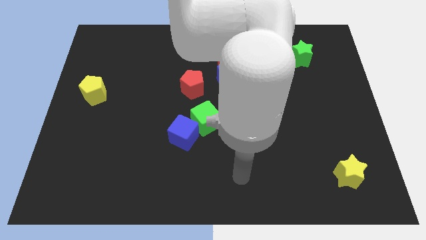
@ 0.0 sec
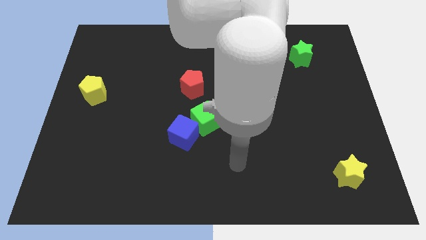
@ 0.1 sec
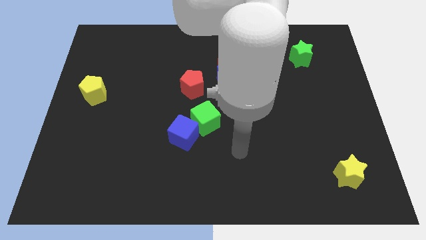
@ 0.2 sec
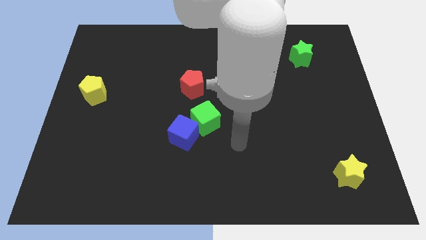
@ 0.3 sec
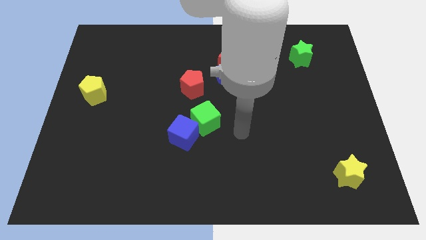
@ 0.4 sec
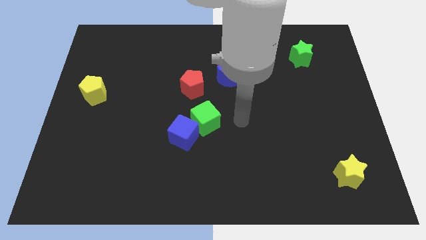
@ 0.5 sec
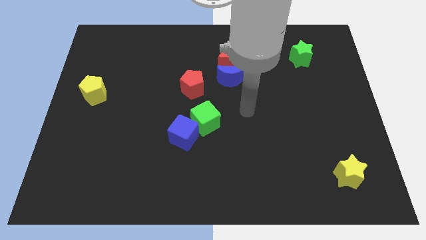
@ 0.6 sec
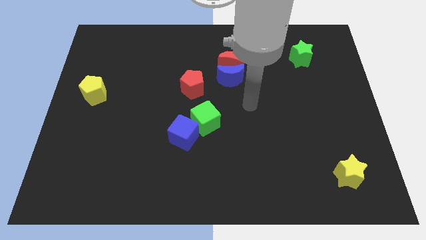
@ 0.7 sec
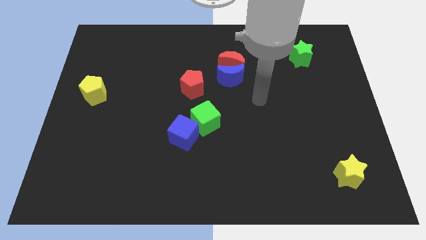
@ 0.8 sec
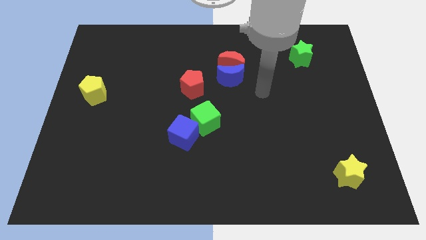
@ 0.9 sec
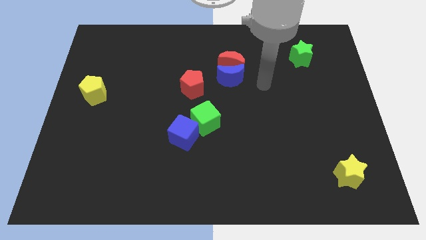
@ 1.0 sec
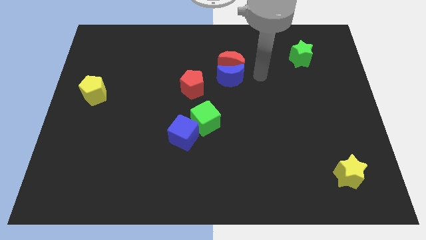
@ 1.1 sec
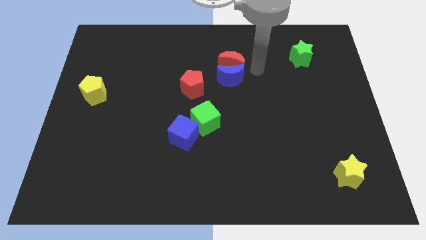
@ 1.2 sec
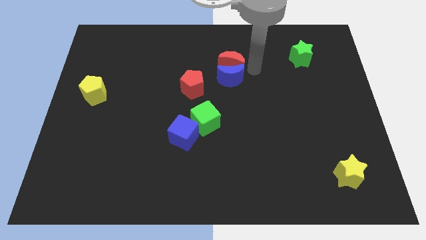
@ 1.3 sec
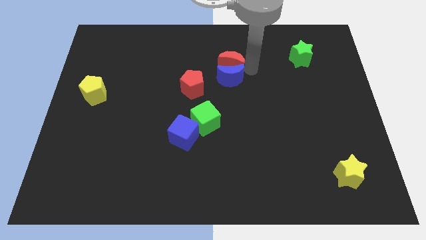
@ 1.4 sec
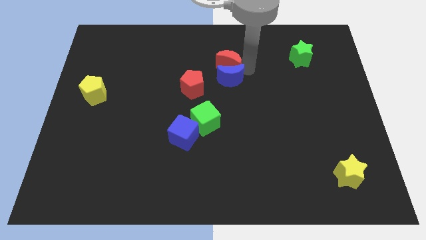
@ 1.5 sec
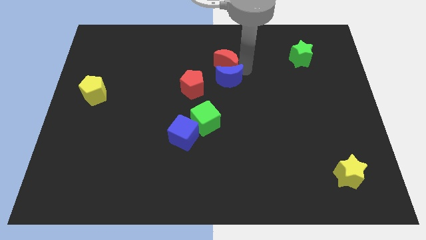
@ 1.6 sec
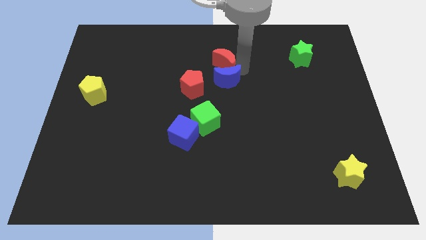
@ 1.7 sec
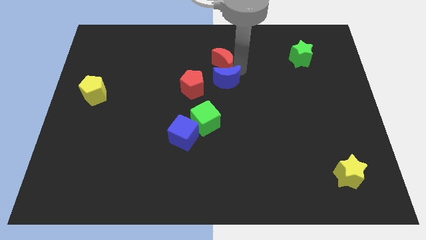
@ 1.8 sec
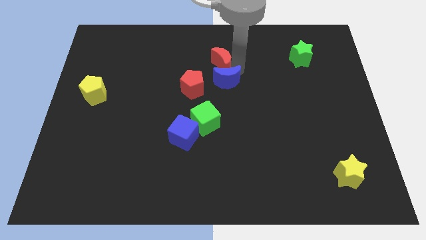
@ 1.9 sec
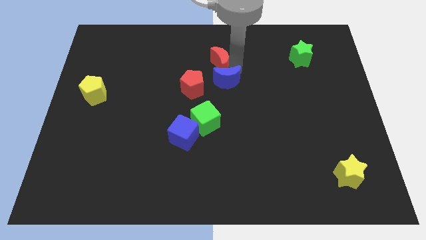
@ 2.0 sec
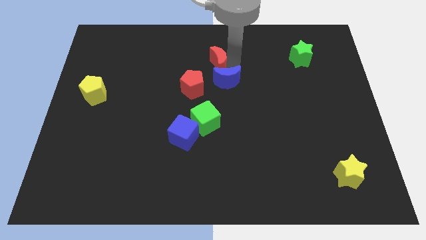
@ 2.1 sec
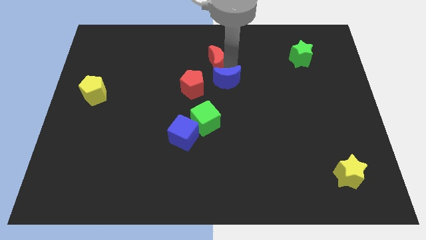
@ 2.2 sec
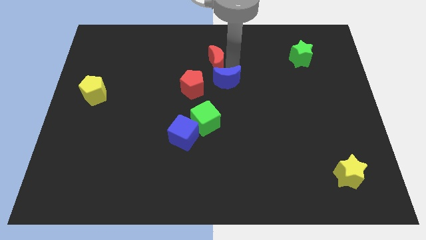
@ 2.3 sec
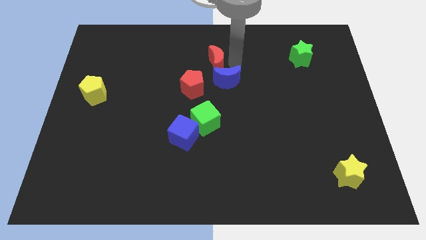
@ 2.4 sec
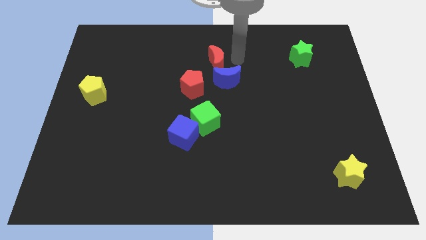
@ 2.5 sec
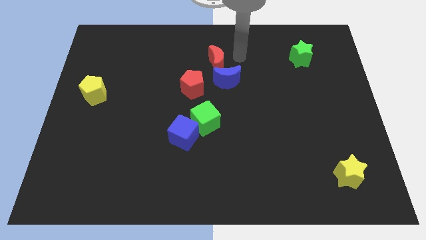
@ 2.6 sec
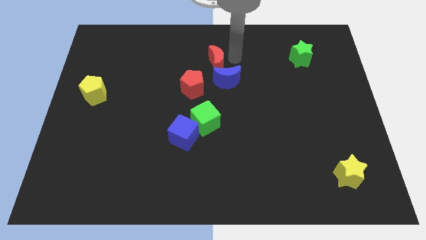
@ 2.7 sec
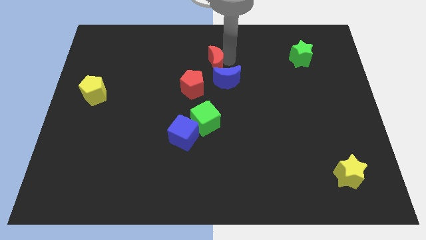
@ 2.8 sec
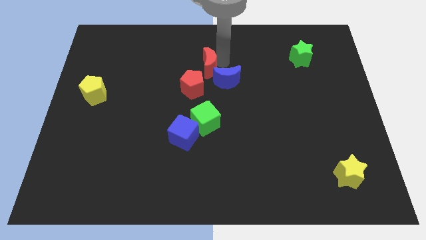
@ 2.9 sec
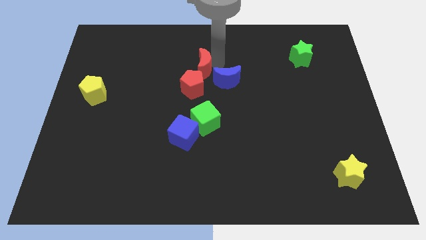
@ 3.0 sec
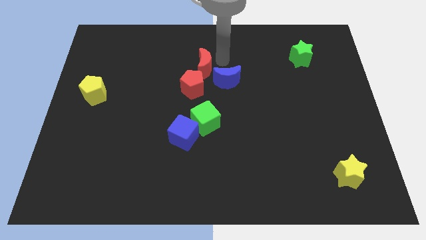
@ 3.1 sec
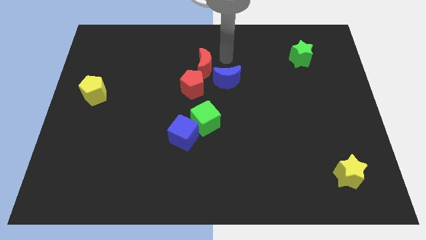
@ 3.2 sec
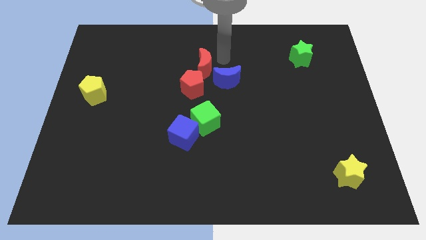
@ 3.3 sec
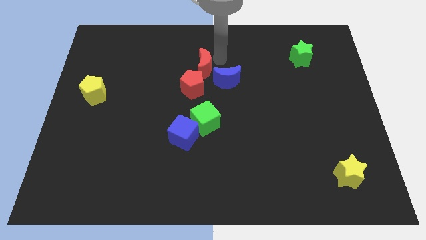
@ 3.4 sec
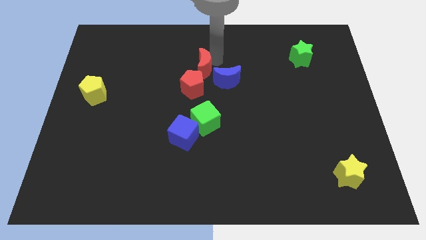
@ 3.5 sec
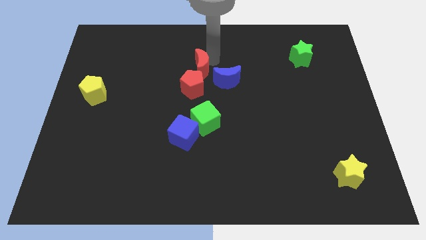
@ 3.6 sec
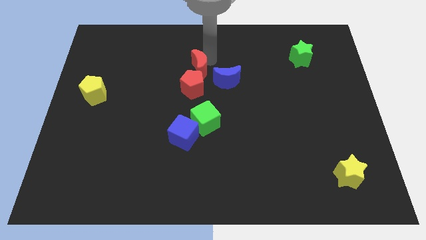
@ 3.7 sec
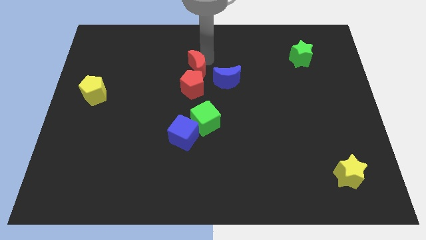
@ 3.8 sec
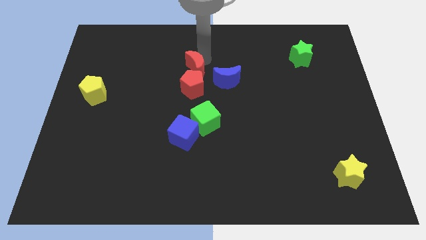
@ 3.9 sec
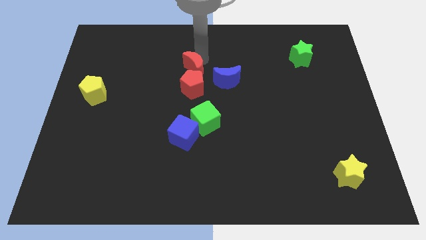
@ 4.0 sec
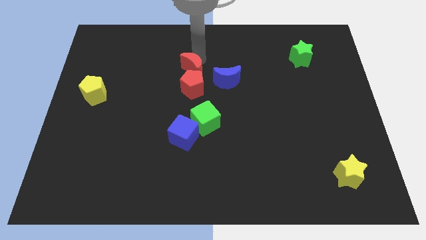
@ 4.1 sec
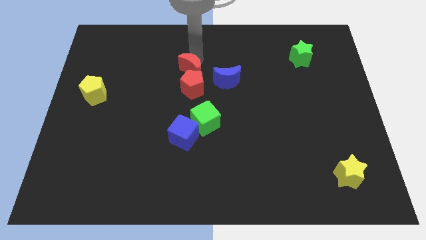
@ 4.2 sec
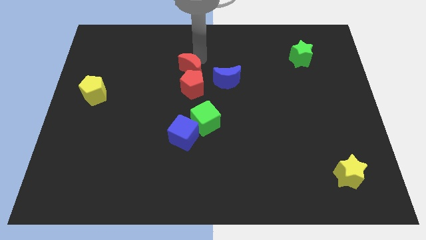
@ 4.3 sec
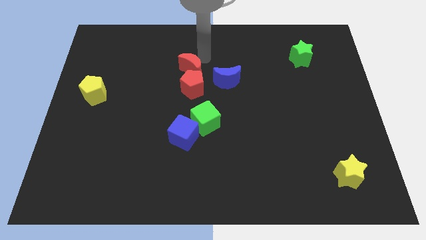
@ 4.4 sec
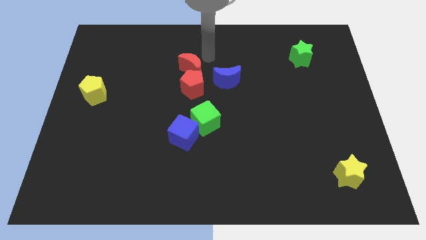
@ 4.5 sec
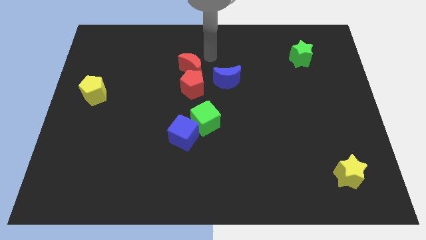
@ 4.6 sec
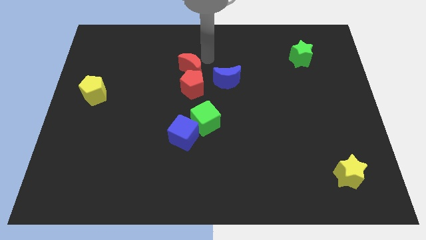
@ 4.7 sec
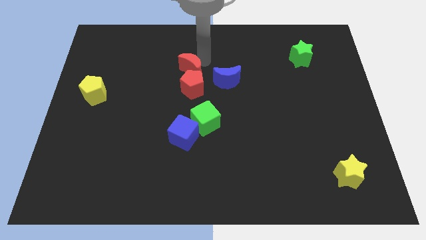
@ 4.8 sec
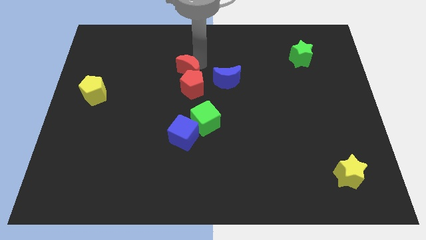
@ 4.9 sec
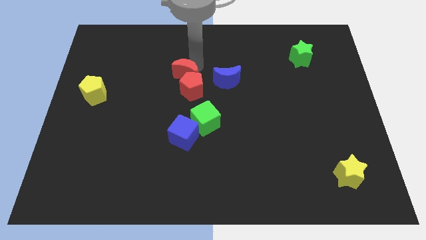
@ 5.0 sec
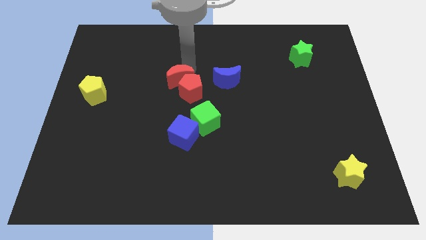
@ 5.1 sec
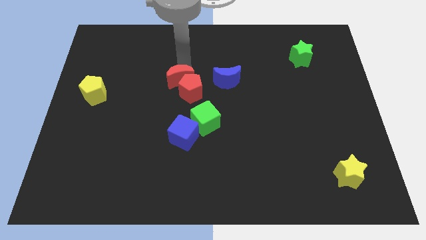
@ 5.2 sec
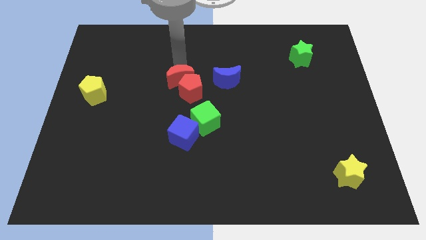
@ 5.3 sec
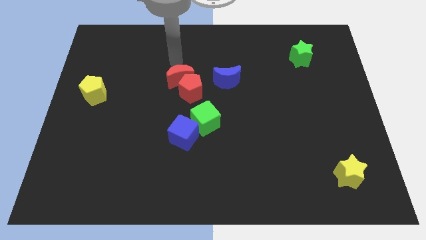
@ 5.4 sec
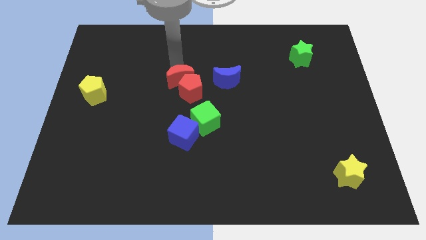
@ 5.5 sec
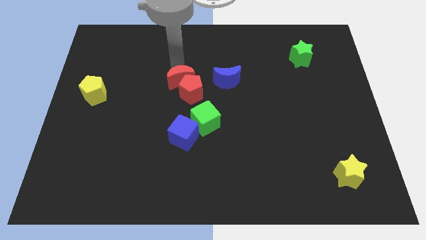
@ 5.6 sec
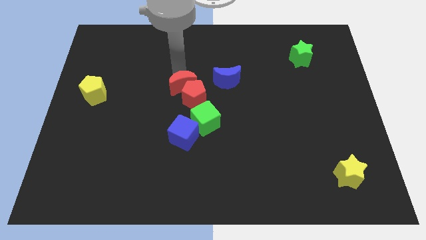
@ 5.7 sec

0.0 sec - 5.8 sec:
put the red moon to the top of the blue cube

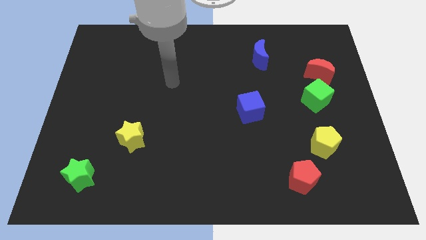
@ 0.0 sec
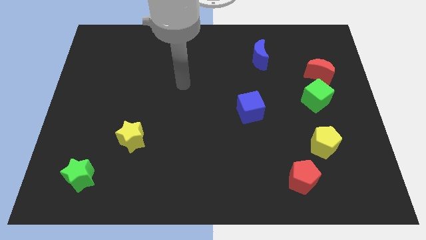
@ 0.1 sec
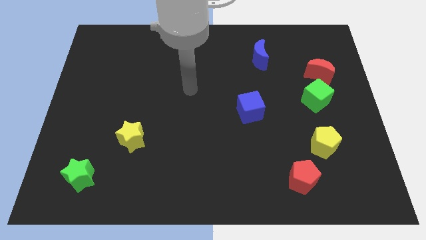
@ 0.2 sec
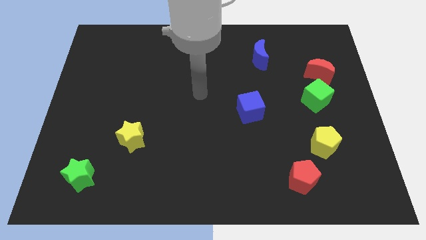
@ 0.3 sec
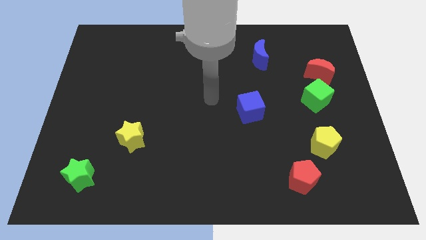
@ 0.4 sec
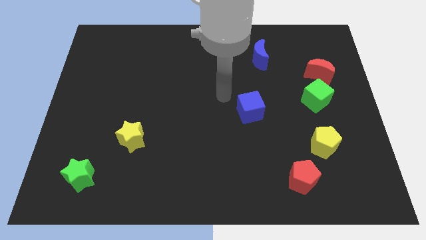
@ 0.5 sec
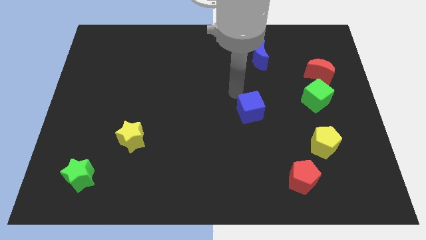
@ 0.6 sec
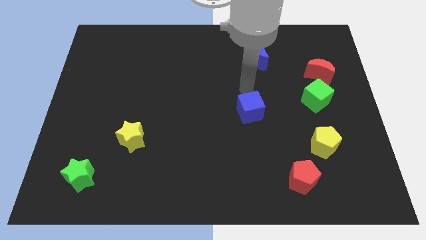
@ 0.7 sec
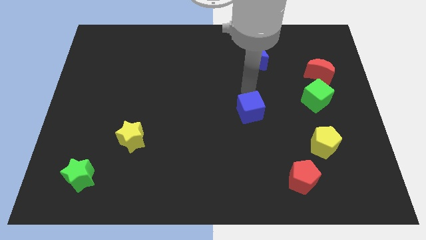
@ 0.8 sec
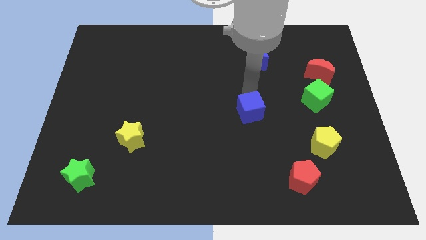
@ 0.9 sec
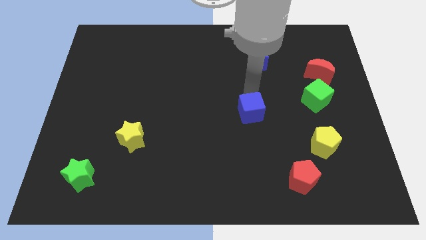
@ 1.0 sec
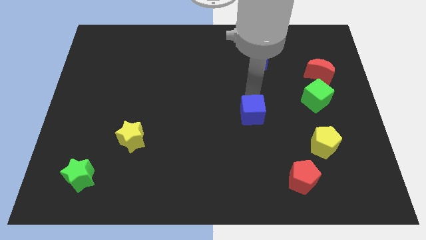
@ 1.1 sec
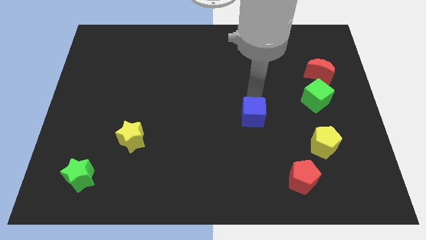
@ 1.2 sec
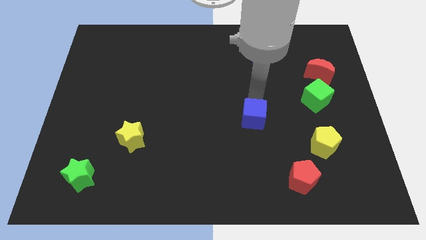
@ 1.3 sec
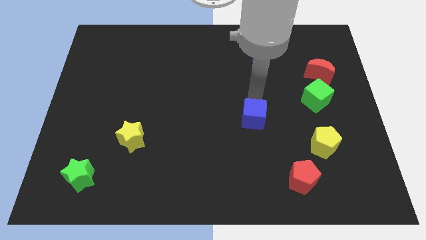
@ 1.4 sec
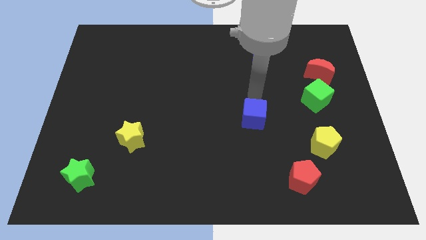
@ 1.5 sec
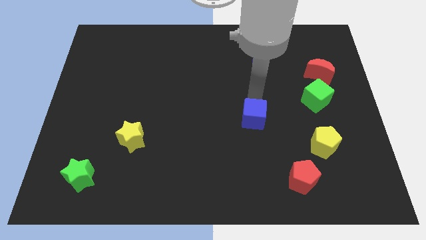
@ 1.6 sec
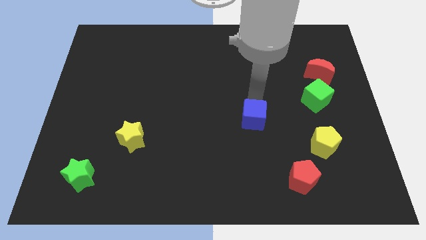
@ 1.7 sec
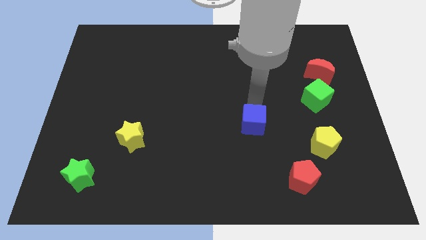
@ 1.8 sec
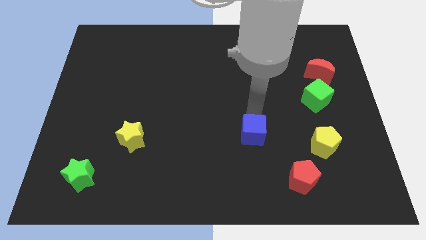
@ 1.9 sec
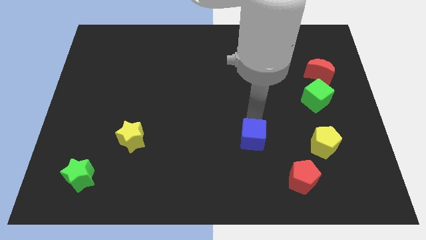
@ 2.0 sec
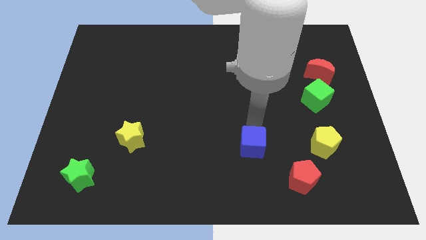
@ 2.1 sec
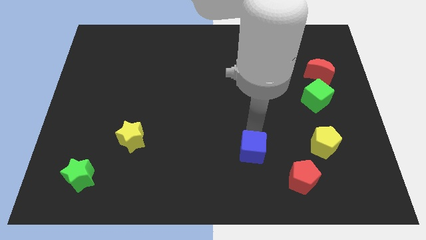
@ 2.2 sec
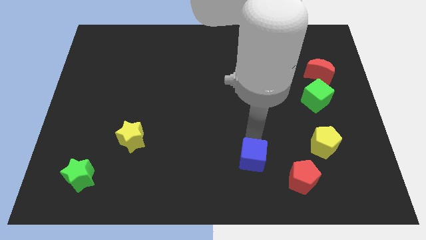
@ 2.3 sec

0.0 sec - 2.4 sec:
push the blue cube just left of the red pentagon
